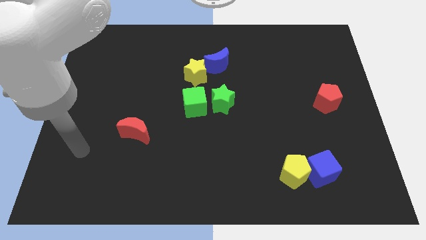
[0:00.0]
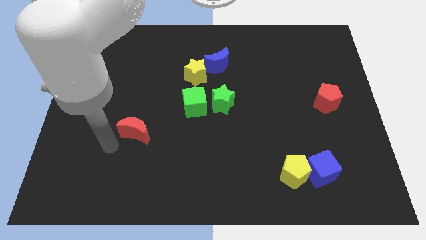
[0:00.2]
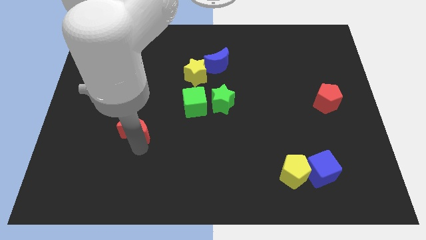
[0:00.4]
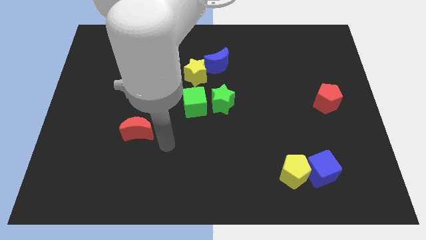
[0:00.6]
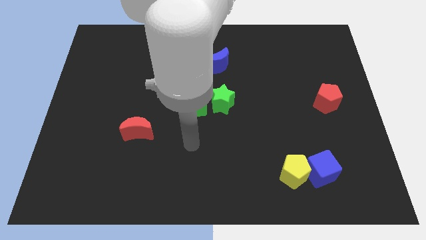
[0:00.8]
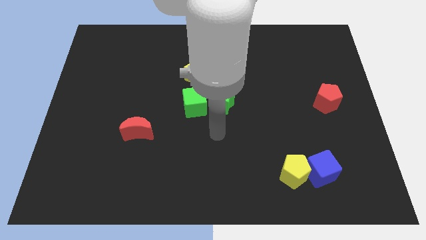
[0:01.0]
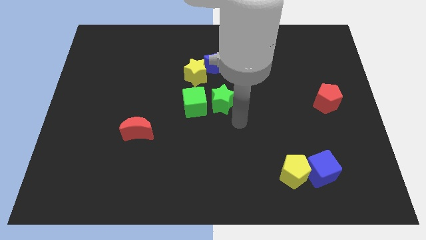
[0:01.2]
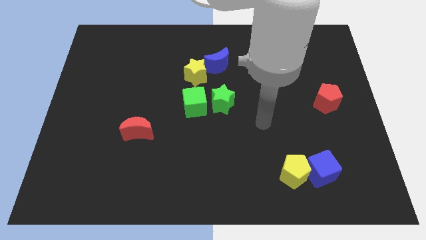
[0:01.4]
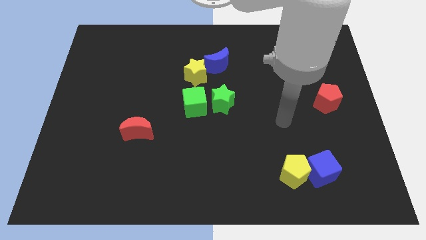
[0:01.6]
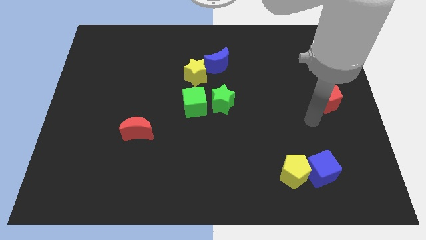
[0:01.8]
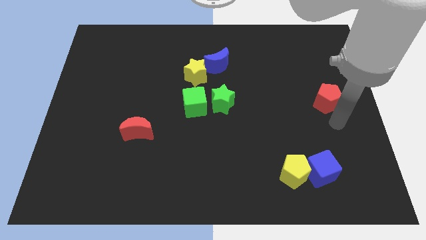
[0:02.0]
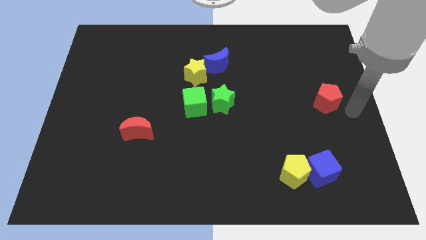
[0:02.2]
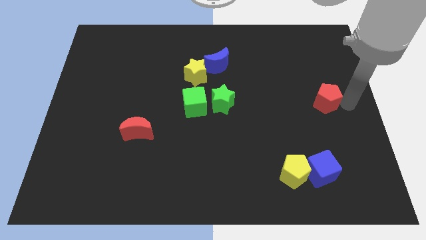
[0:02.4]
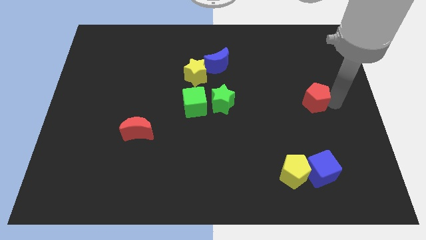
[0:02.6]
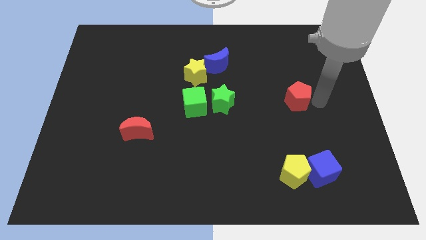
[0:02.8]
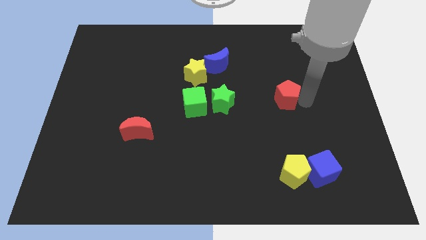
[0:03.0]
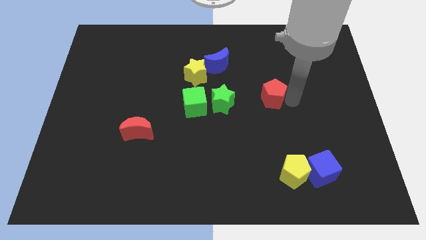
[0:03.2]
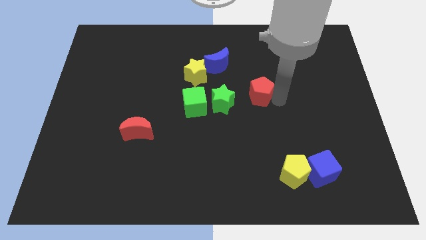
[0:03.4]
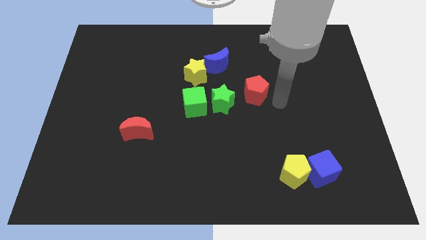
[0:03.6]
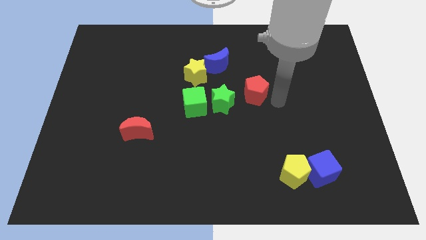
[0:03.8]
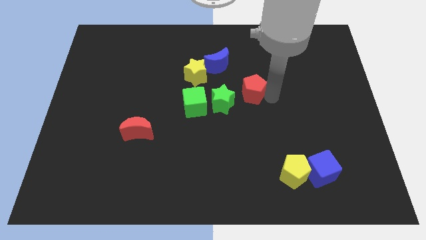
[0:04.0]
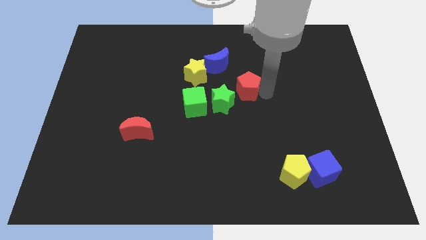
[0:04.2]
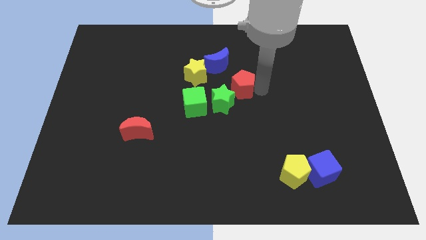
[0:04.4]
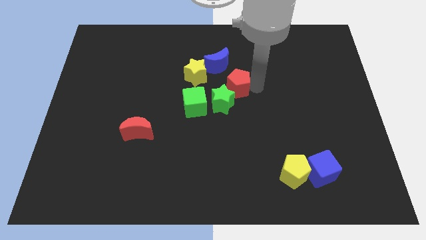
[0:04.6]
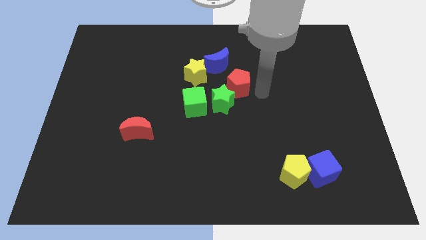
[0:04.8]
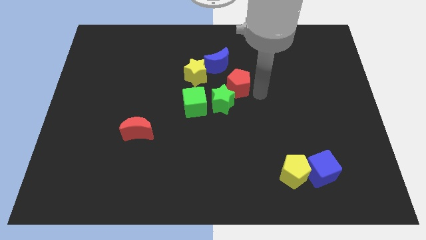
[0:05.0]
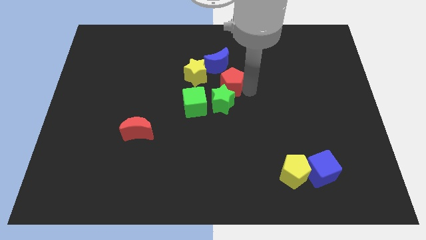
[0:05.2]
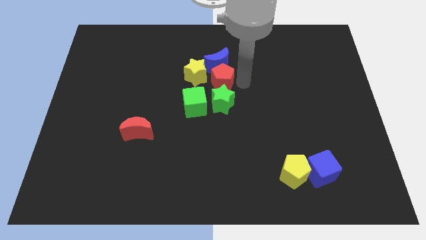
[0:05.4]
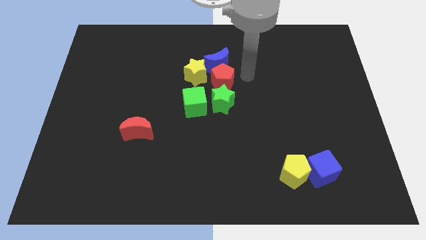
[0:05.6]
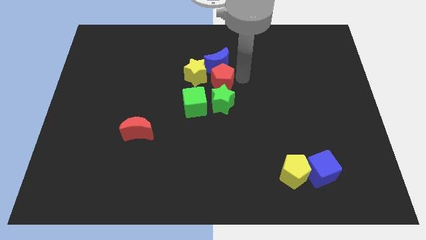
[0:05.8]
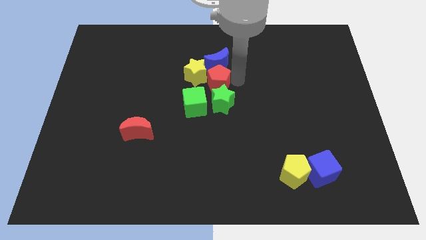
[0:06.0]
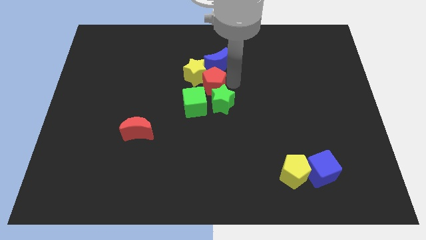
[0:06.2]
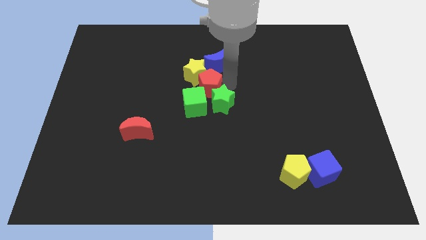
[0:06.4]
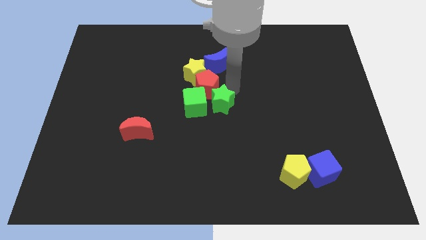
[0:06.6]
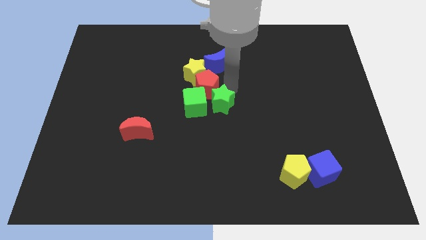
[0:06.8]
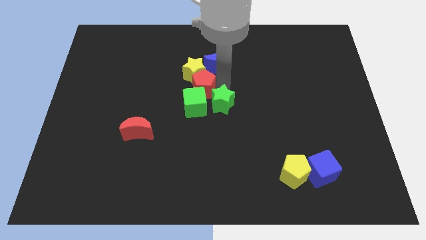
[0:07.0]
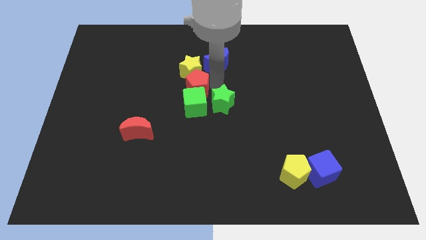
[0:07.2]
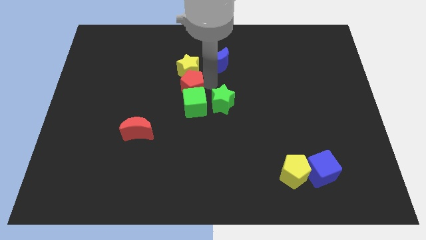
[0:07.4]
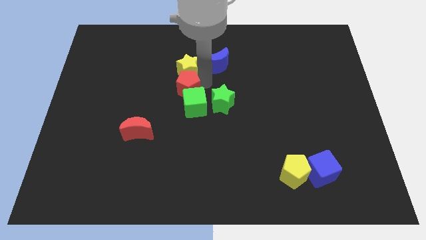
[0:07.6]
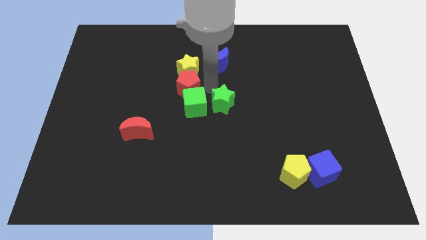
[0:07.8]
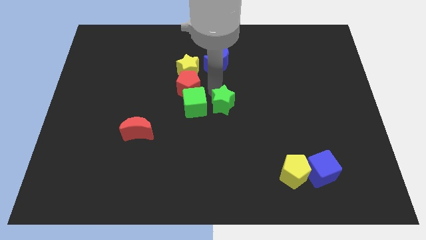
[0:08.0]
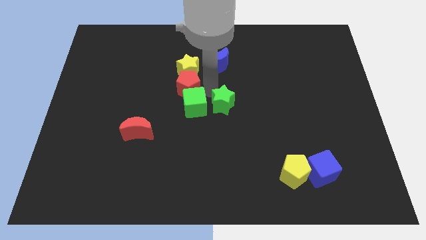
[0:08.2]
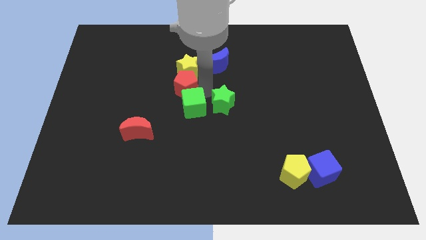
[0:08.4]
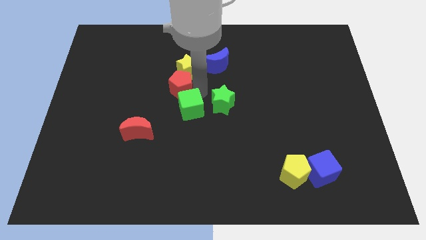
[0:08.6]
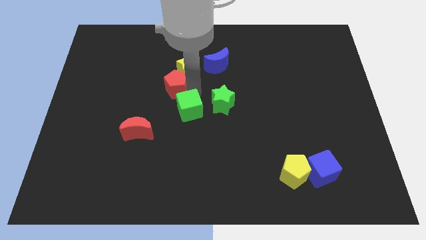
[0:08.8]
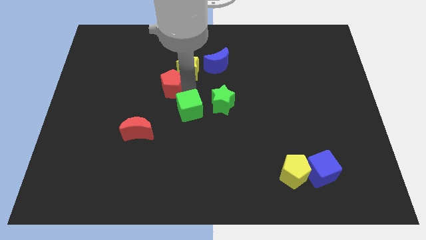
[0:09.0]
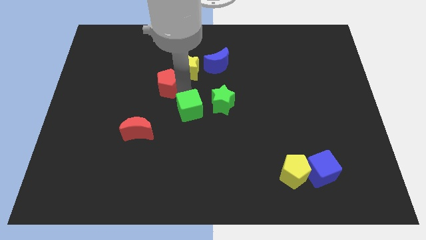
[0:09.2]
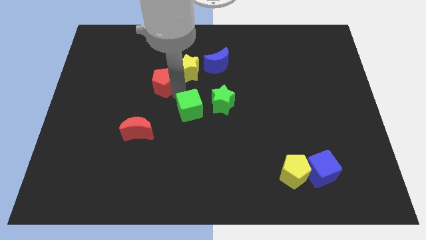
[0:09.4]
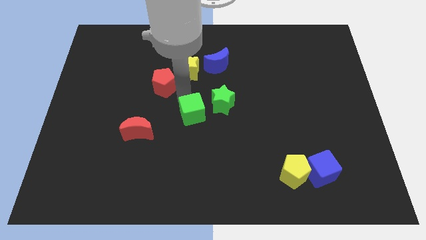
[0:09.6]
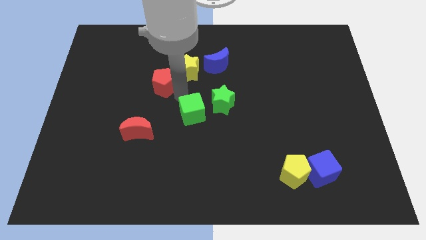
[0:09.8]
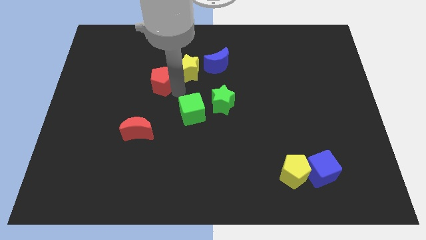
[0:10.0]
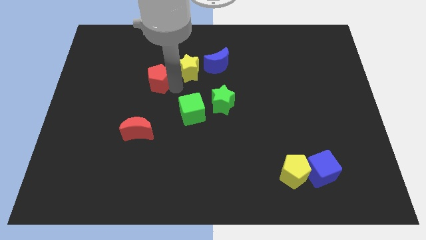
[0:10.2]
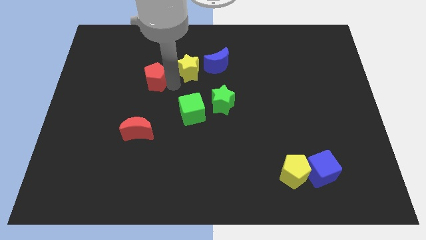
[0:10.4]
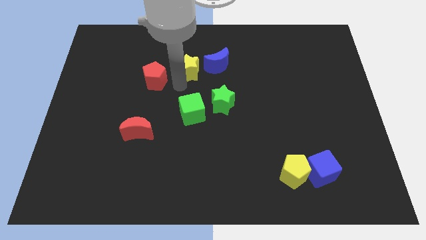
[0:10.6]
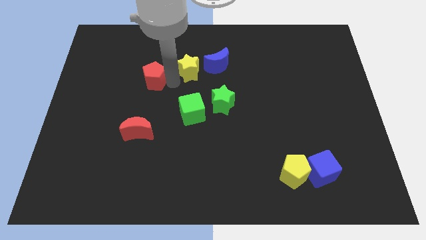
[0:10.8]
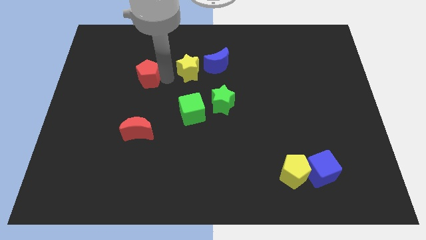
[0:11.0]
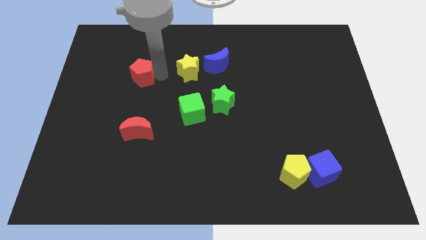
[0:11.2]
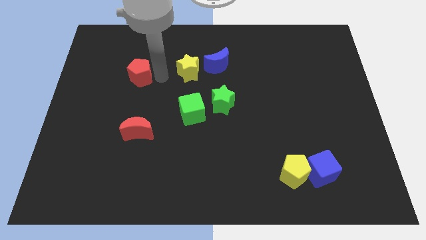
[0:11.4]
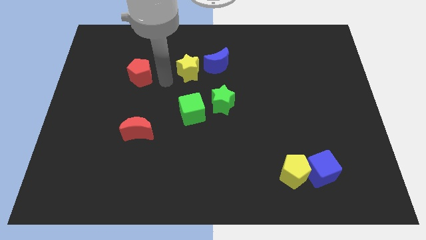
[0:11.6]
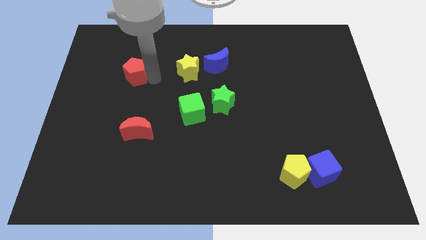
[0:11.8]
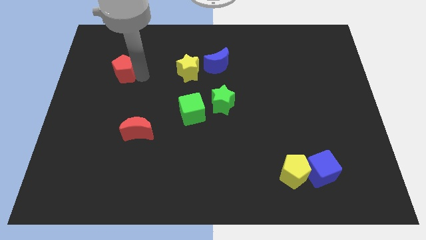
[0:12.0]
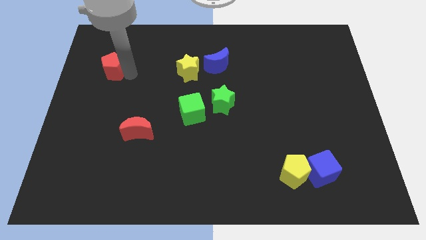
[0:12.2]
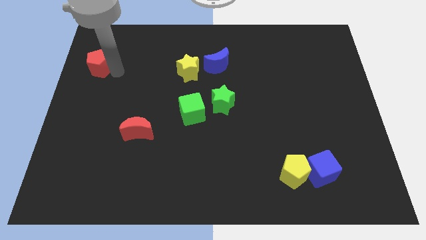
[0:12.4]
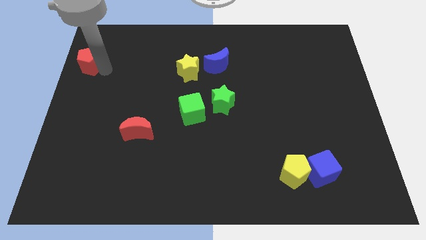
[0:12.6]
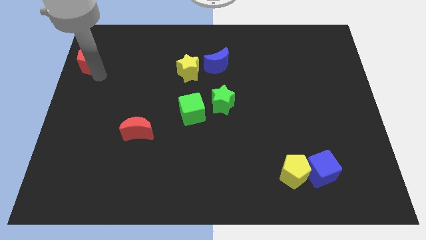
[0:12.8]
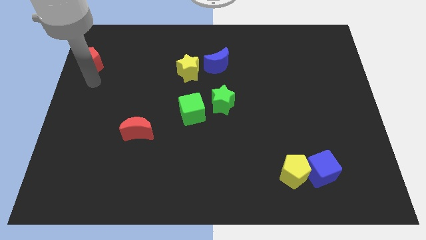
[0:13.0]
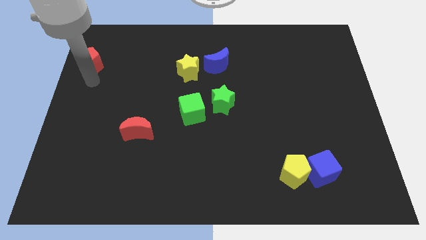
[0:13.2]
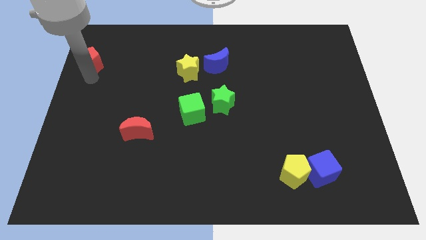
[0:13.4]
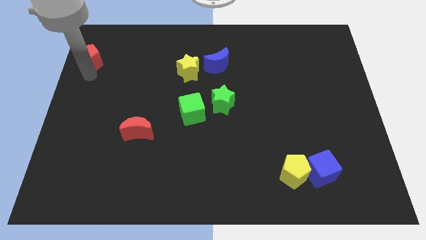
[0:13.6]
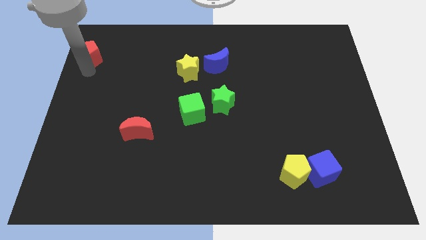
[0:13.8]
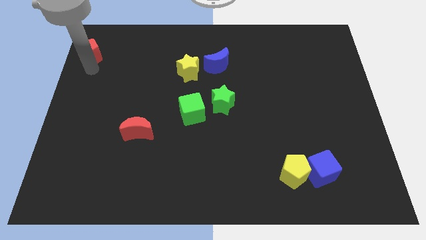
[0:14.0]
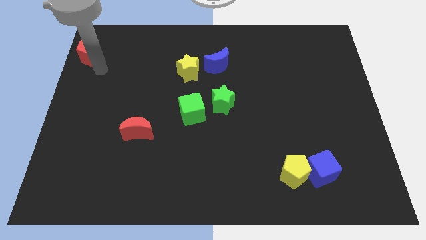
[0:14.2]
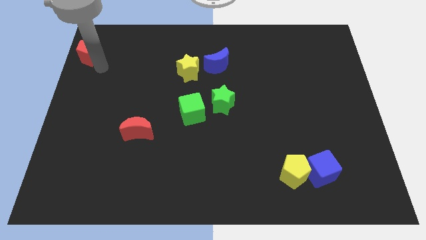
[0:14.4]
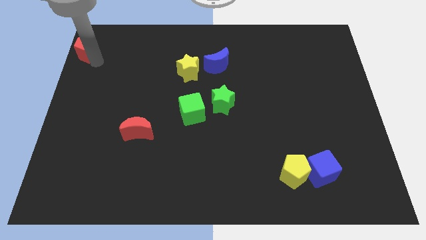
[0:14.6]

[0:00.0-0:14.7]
push the red pentagon to the top left
